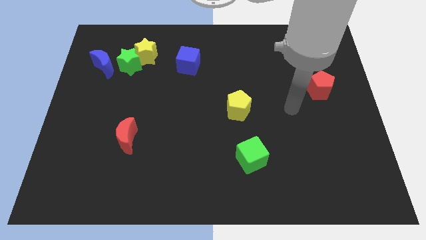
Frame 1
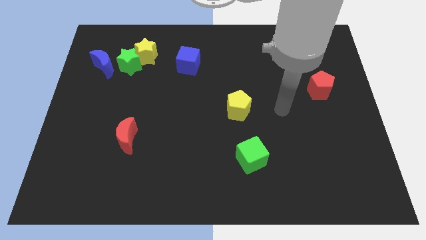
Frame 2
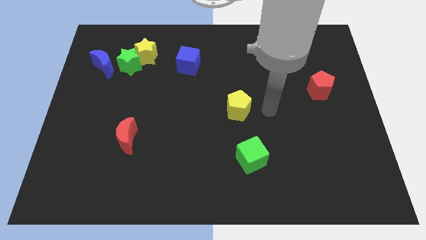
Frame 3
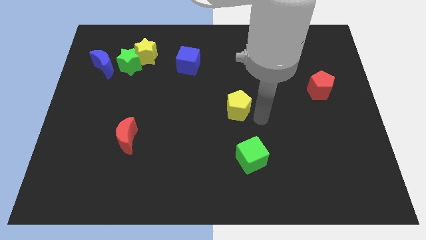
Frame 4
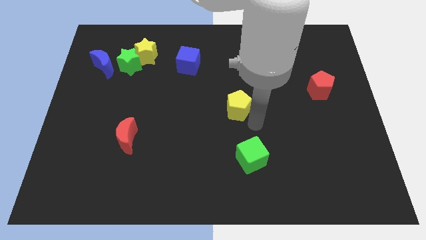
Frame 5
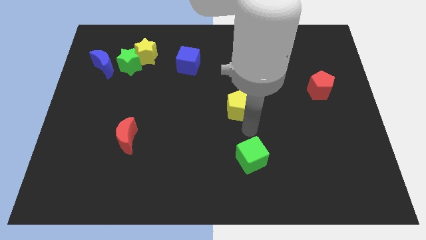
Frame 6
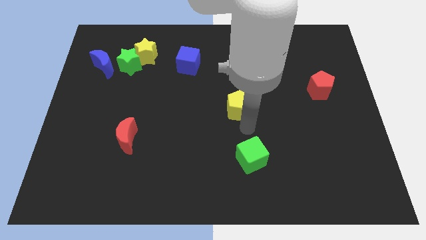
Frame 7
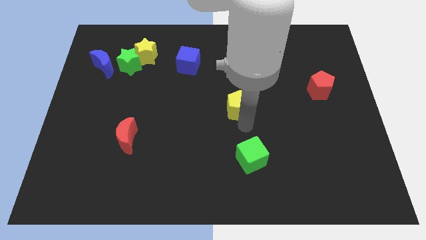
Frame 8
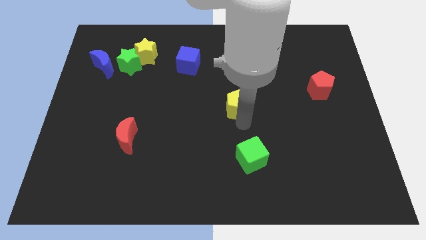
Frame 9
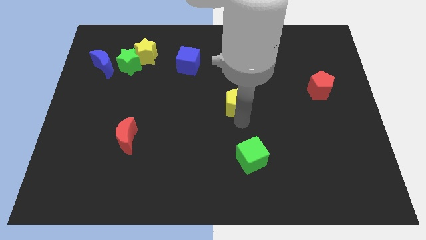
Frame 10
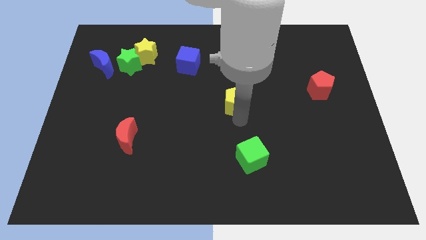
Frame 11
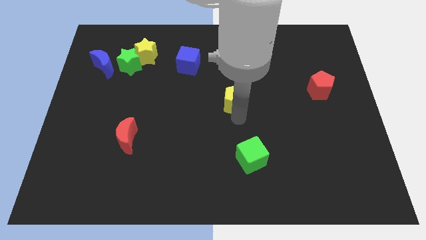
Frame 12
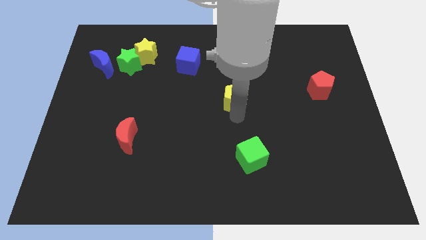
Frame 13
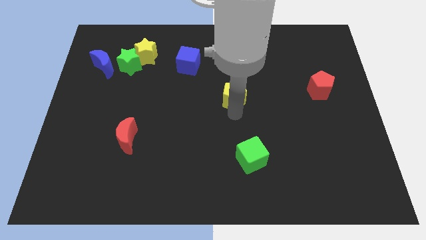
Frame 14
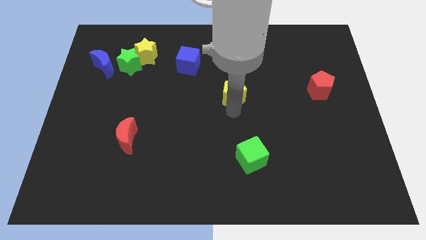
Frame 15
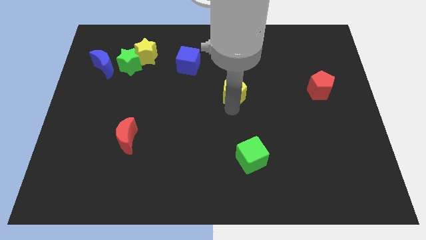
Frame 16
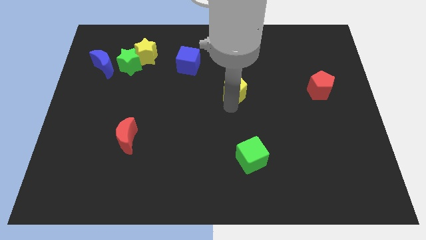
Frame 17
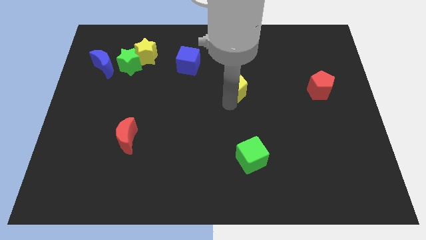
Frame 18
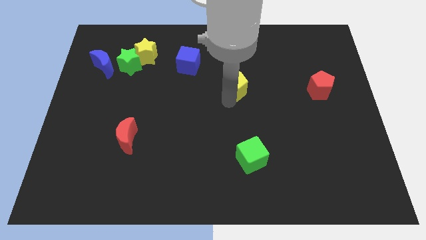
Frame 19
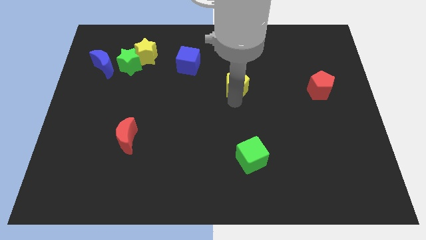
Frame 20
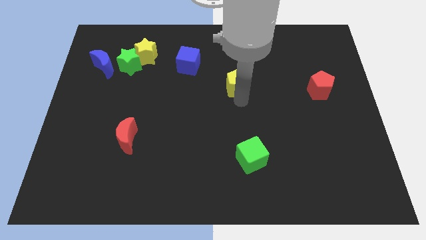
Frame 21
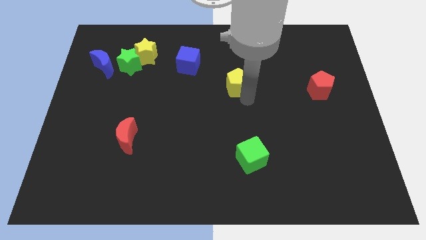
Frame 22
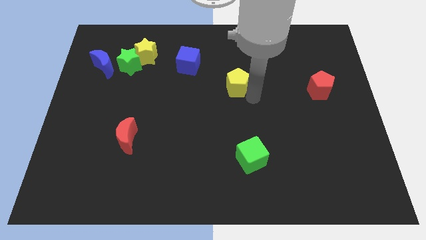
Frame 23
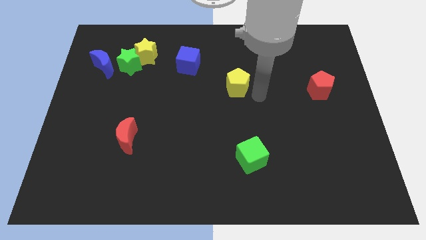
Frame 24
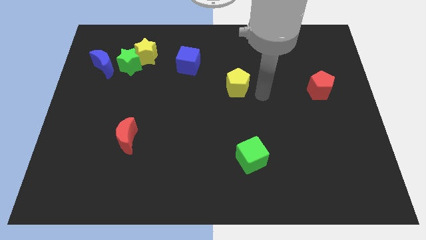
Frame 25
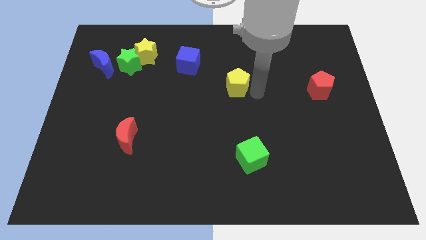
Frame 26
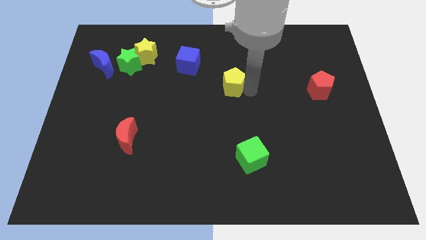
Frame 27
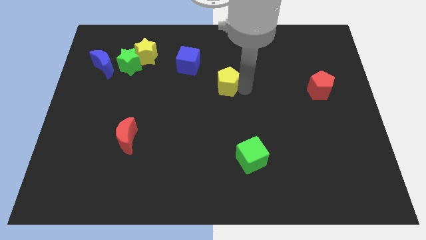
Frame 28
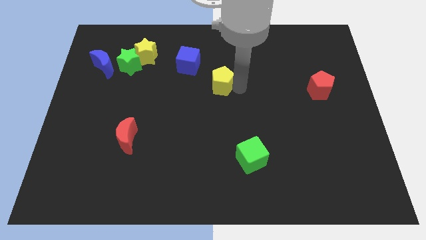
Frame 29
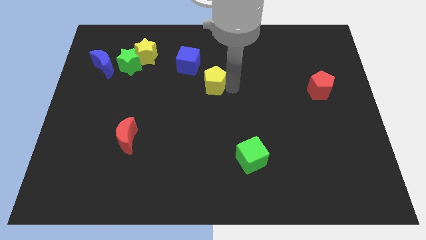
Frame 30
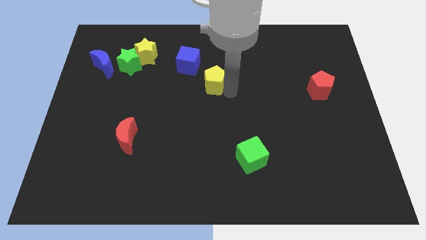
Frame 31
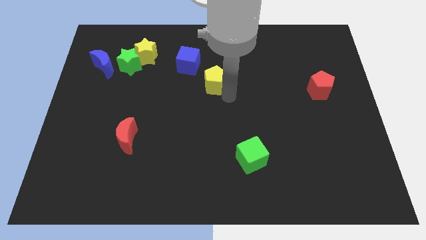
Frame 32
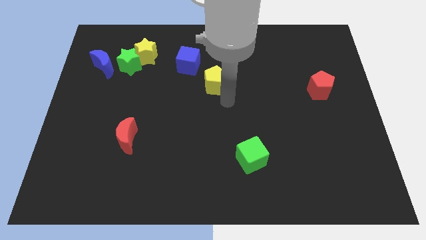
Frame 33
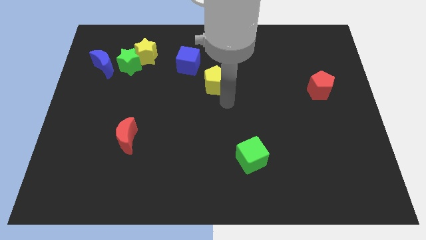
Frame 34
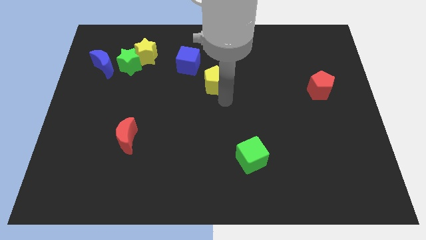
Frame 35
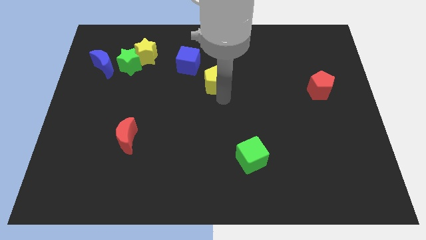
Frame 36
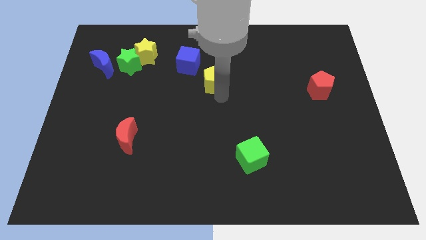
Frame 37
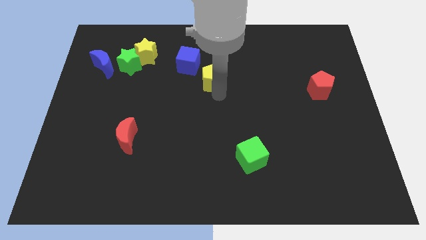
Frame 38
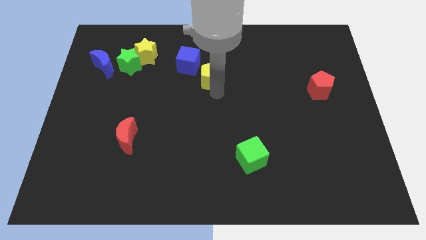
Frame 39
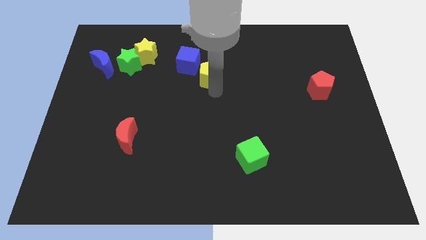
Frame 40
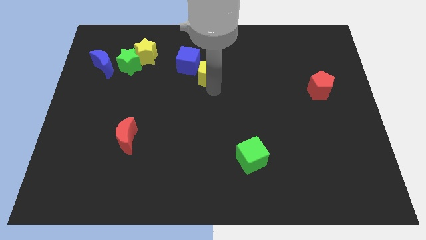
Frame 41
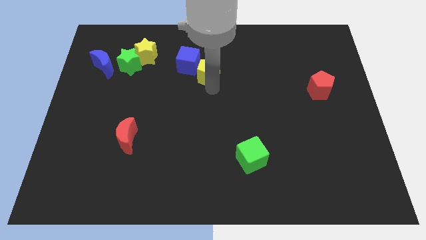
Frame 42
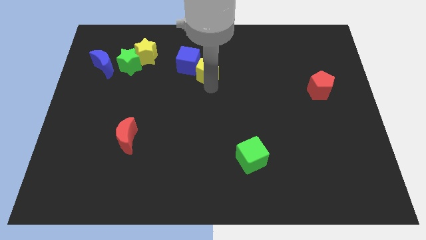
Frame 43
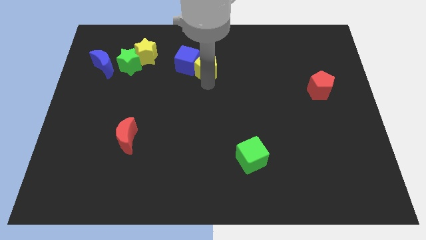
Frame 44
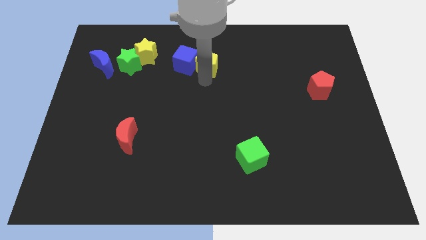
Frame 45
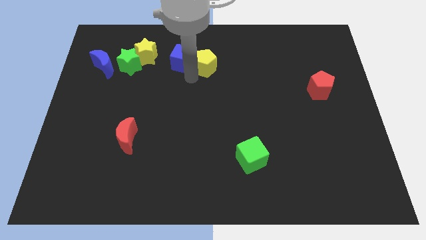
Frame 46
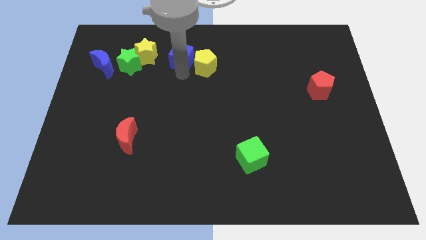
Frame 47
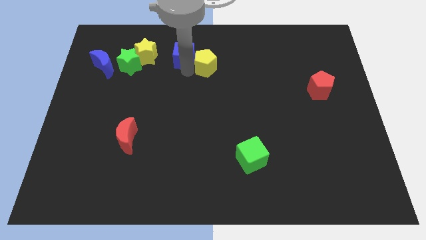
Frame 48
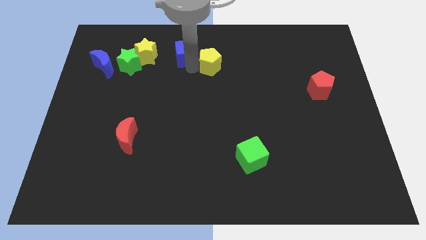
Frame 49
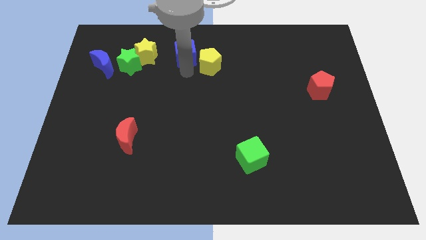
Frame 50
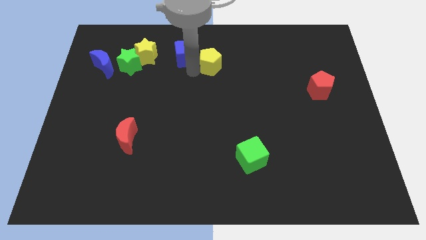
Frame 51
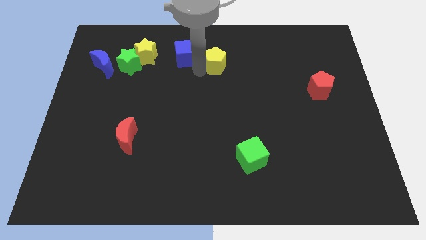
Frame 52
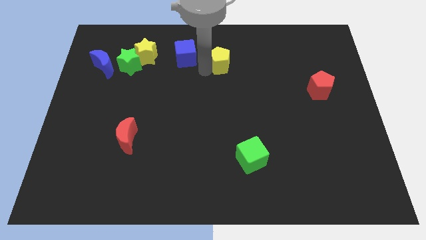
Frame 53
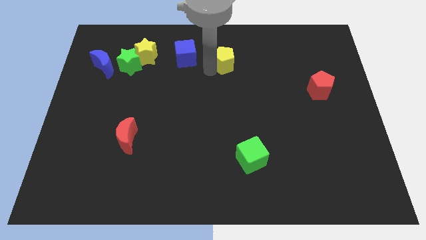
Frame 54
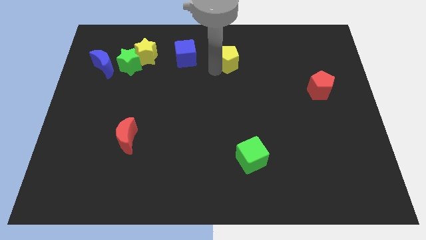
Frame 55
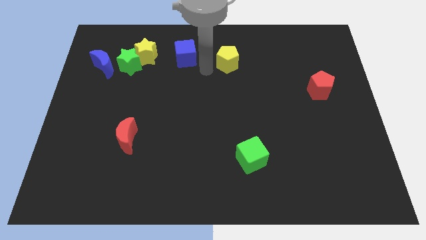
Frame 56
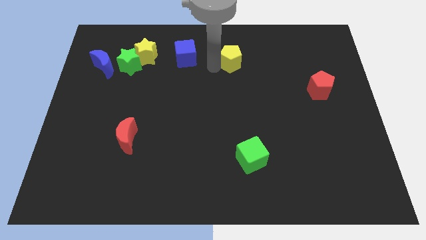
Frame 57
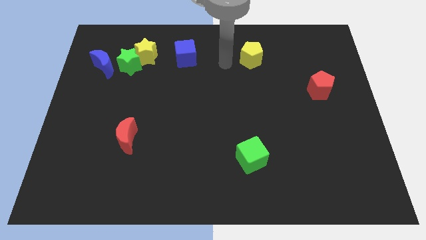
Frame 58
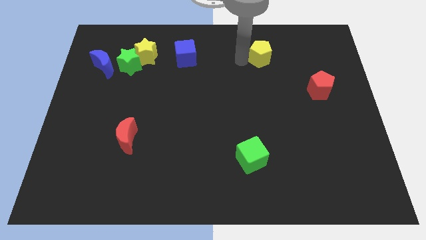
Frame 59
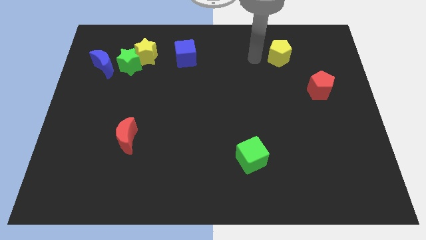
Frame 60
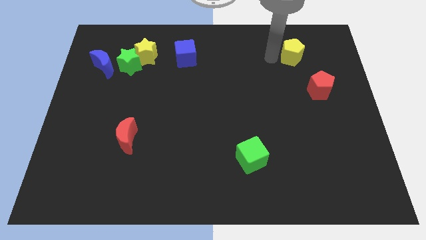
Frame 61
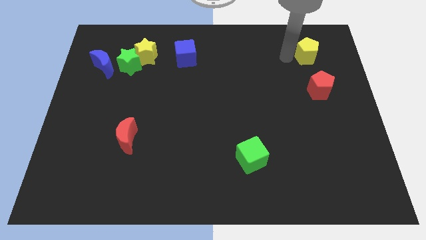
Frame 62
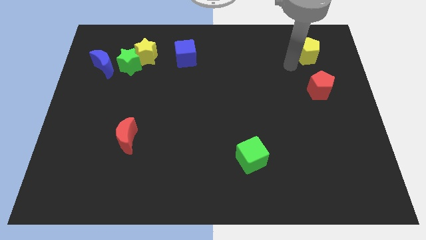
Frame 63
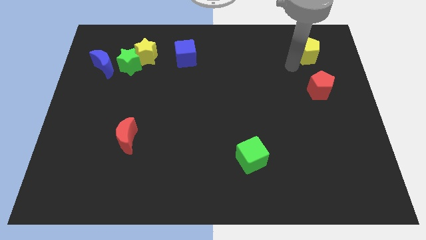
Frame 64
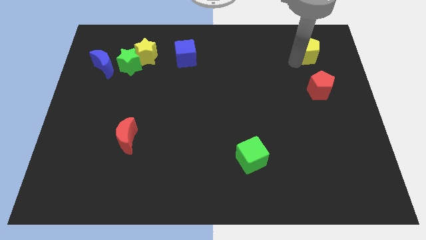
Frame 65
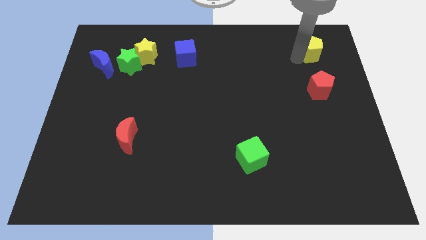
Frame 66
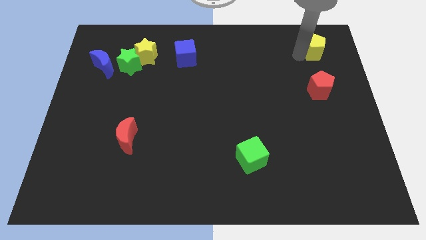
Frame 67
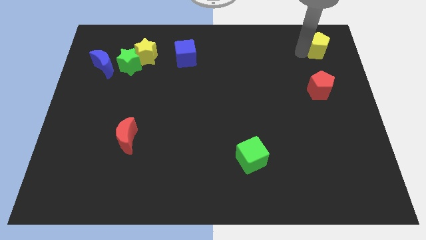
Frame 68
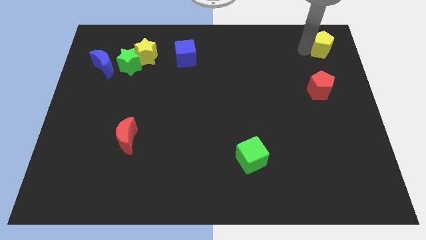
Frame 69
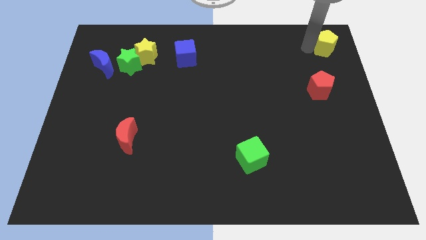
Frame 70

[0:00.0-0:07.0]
put the yellow pentagon to the upper right corner
